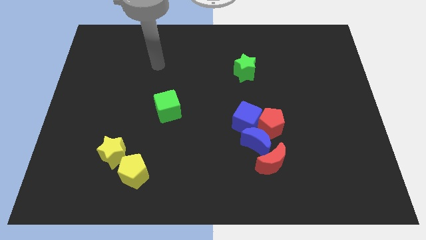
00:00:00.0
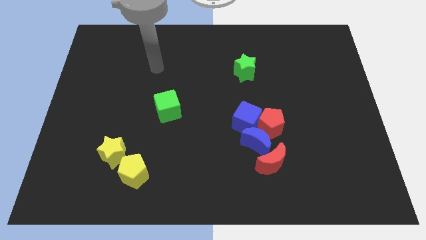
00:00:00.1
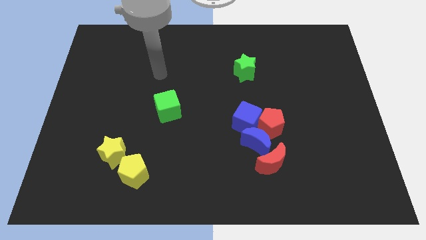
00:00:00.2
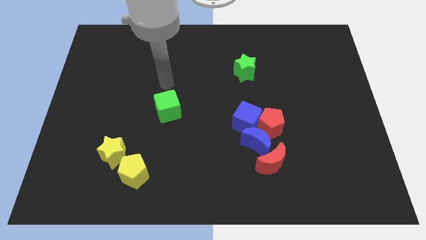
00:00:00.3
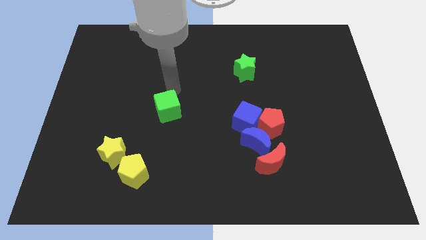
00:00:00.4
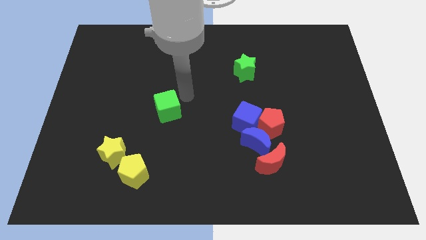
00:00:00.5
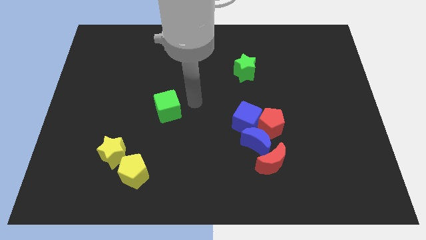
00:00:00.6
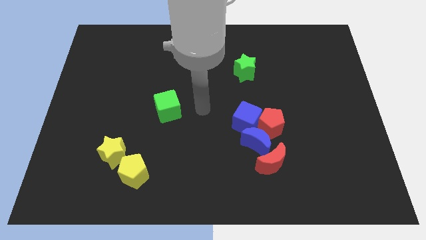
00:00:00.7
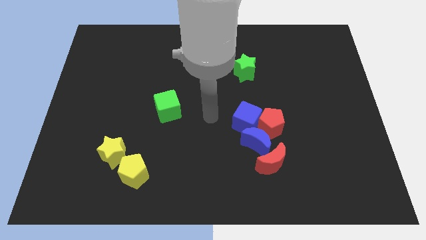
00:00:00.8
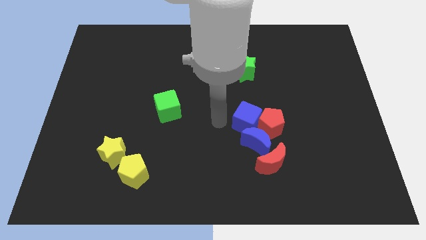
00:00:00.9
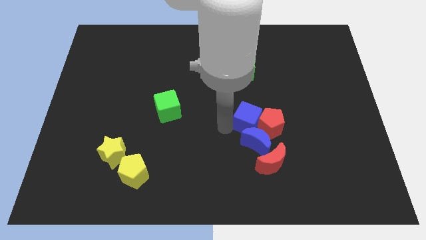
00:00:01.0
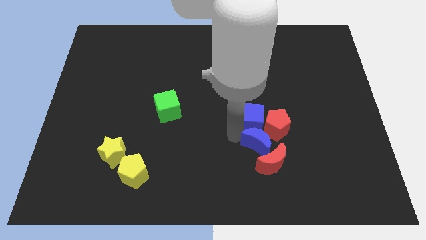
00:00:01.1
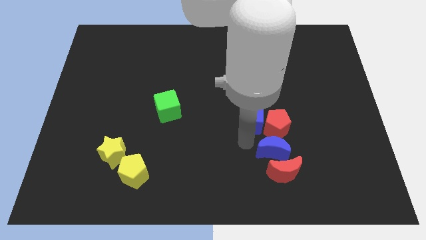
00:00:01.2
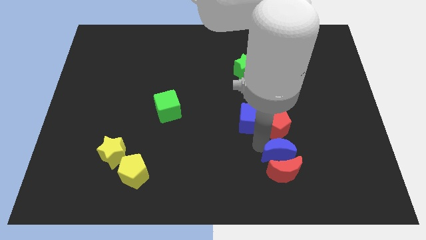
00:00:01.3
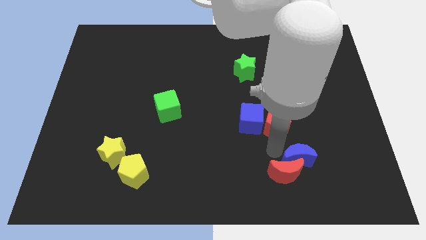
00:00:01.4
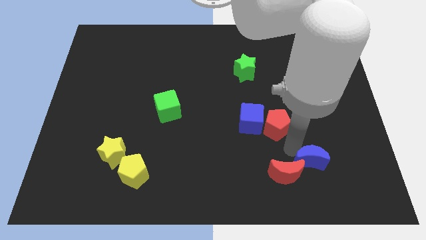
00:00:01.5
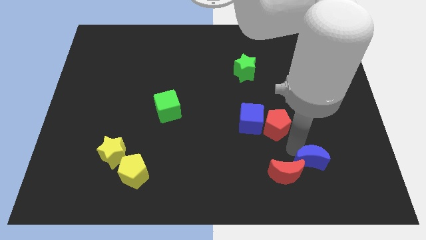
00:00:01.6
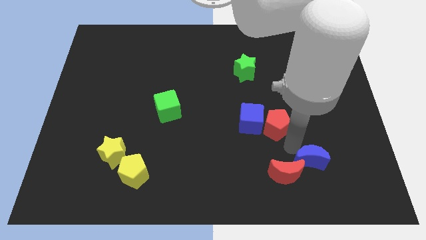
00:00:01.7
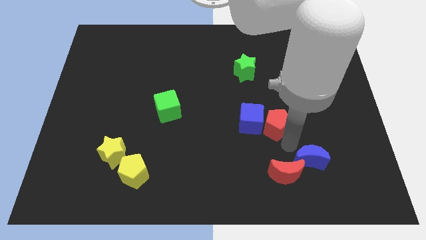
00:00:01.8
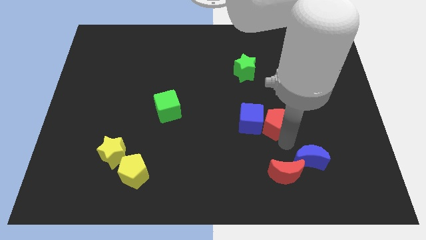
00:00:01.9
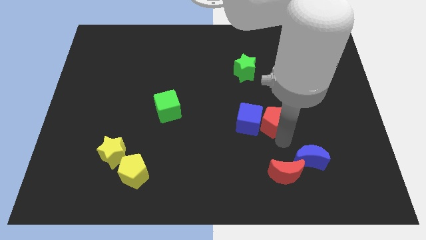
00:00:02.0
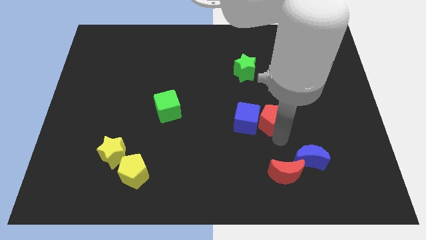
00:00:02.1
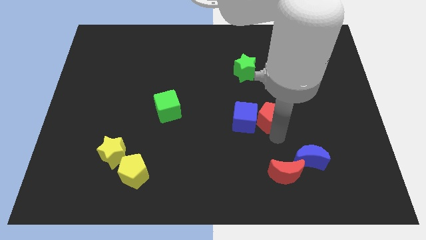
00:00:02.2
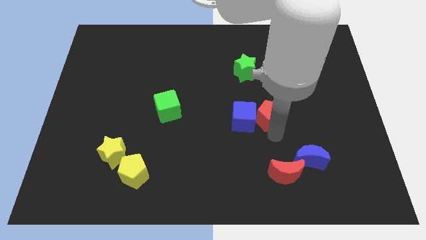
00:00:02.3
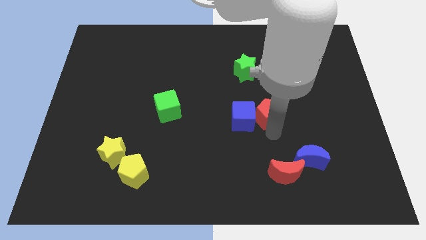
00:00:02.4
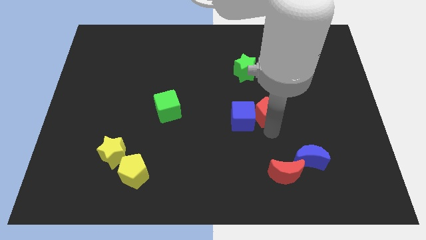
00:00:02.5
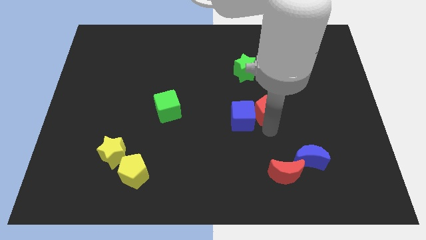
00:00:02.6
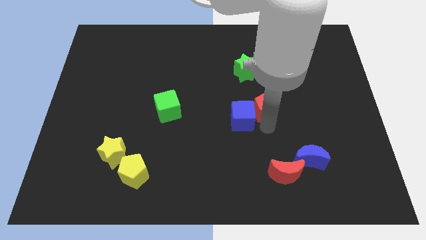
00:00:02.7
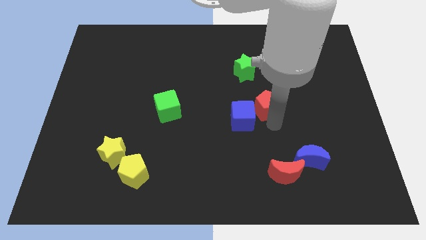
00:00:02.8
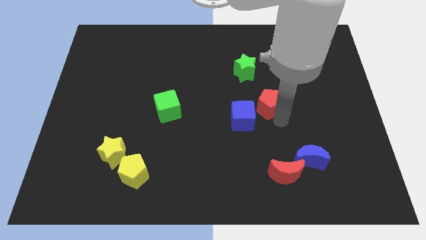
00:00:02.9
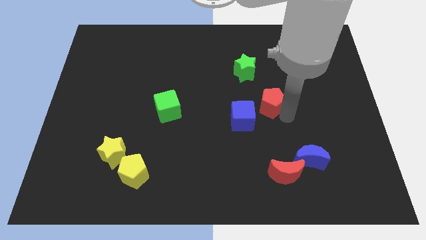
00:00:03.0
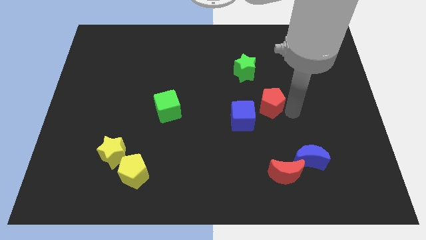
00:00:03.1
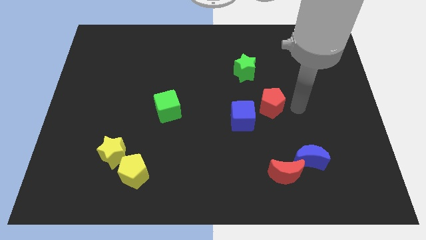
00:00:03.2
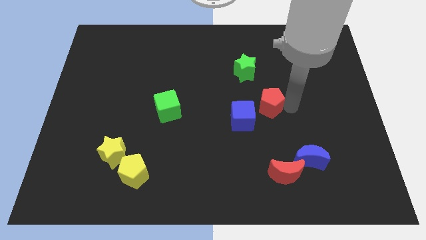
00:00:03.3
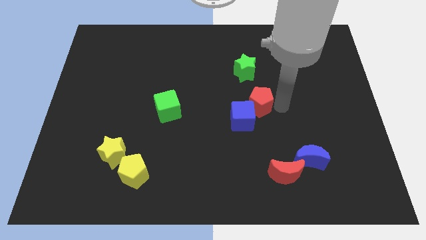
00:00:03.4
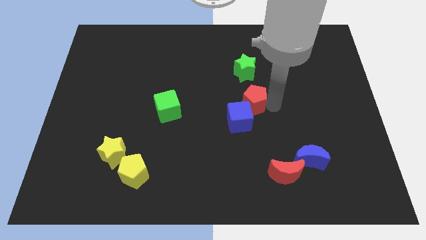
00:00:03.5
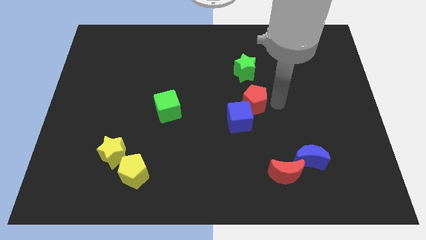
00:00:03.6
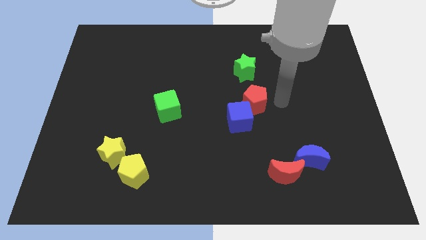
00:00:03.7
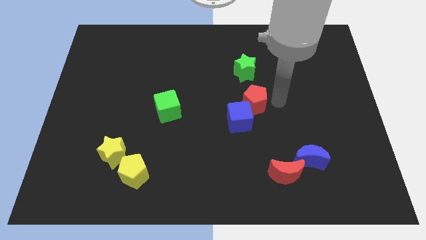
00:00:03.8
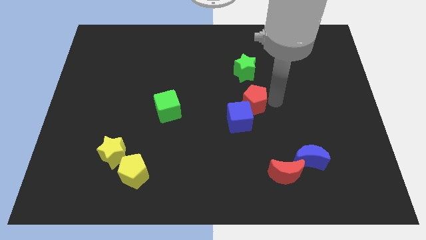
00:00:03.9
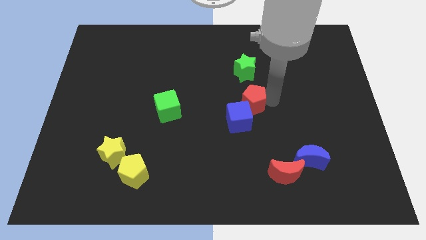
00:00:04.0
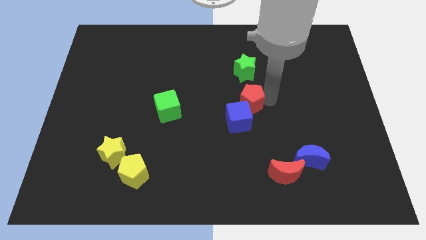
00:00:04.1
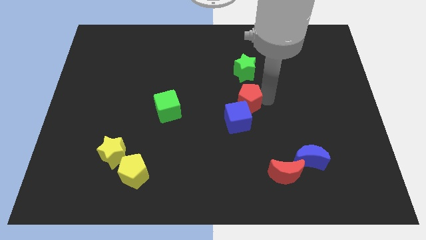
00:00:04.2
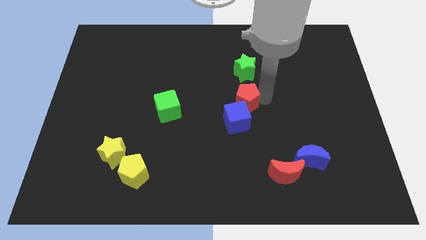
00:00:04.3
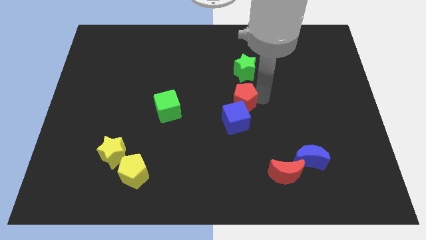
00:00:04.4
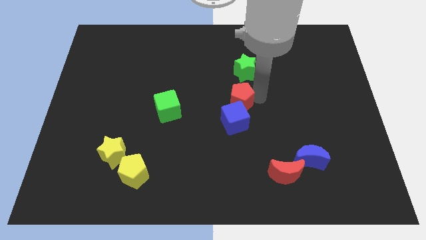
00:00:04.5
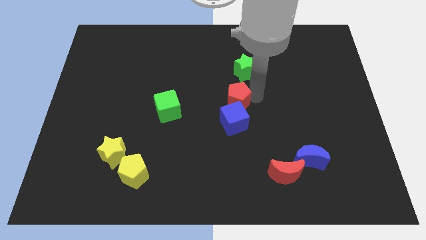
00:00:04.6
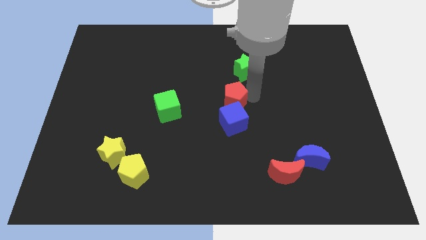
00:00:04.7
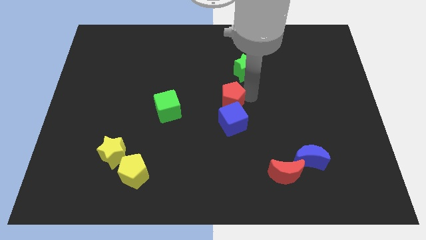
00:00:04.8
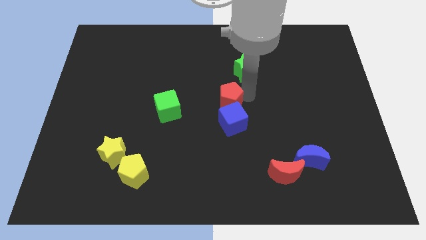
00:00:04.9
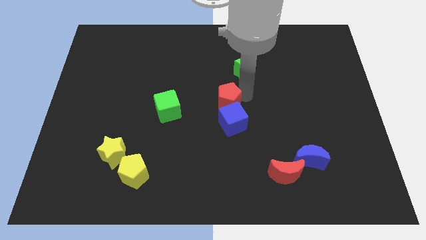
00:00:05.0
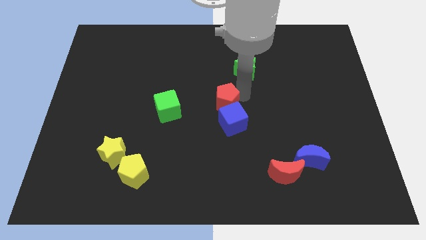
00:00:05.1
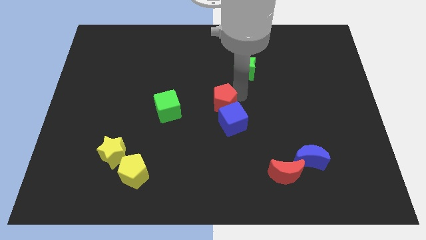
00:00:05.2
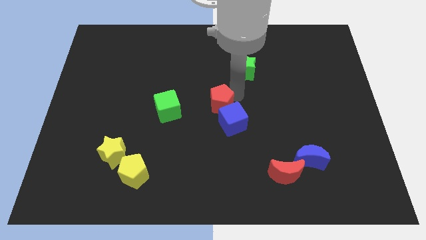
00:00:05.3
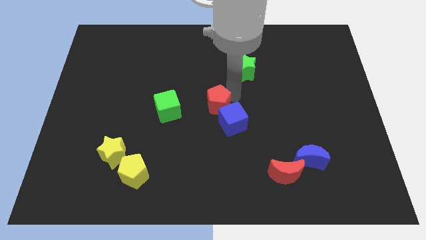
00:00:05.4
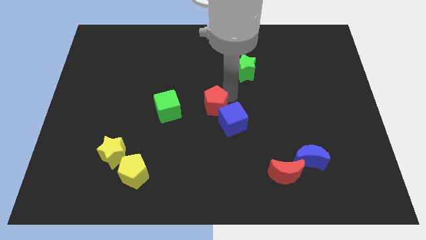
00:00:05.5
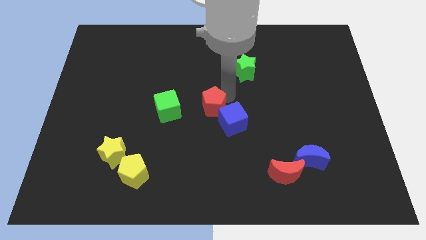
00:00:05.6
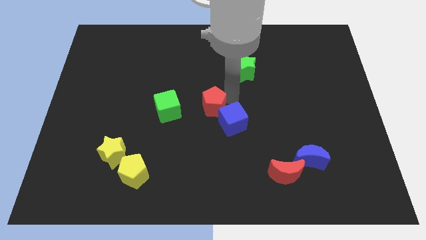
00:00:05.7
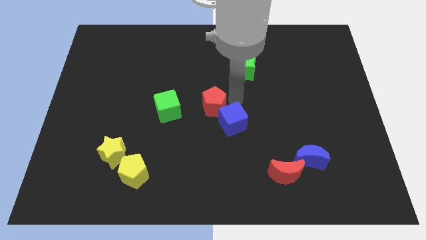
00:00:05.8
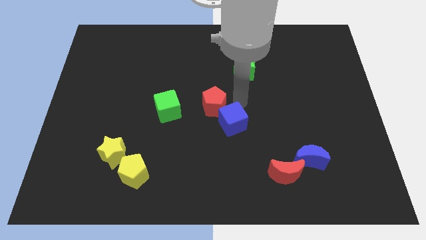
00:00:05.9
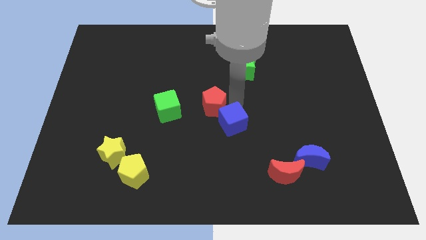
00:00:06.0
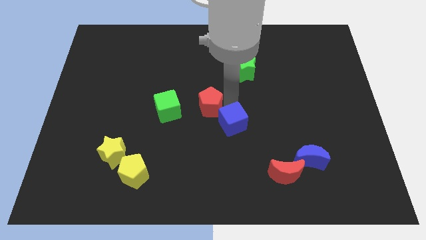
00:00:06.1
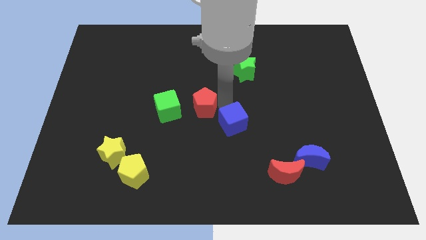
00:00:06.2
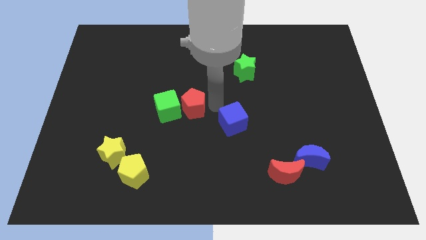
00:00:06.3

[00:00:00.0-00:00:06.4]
slide the red pentagon towards the green cube

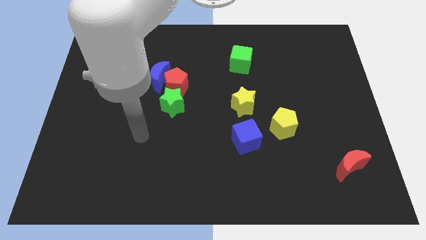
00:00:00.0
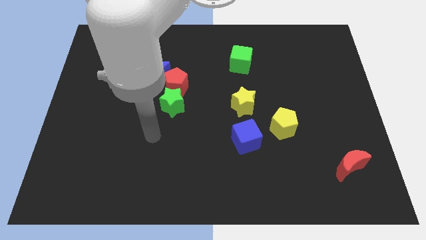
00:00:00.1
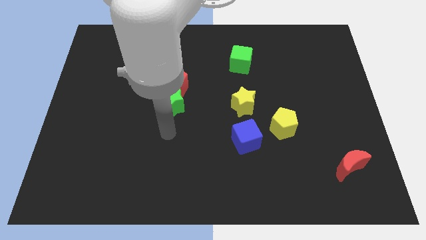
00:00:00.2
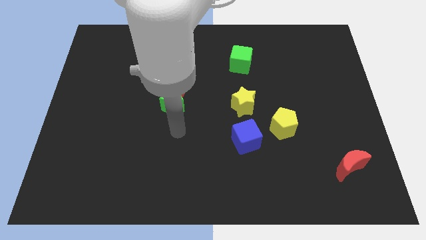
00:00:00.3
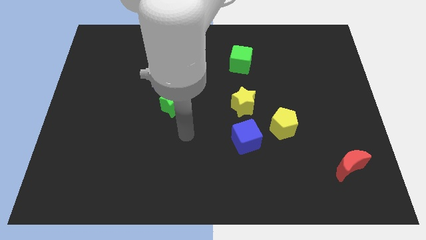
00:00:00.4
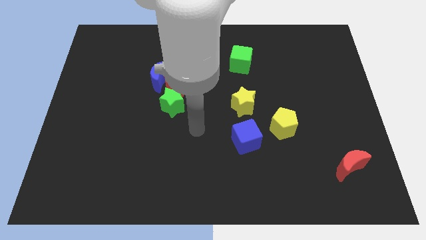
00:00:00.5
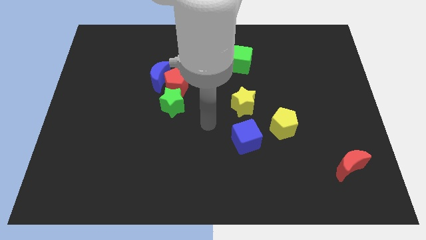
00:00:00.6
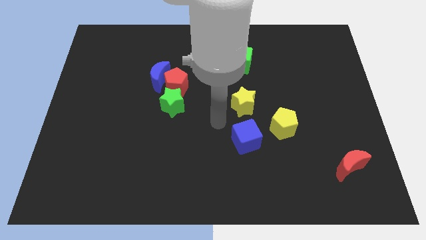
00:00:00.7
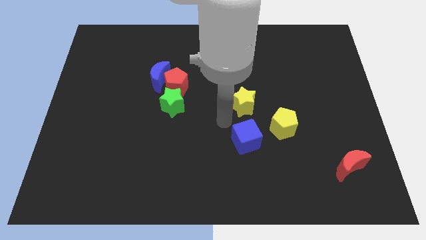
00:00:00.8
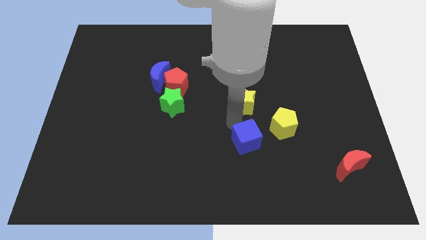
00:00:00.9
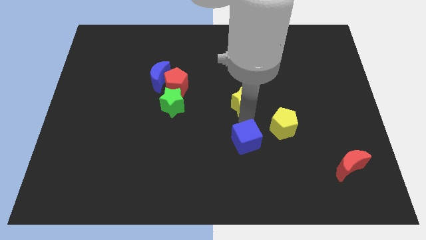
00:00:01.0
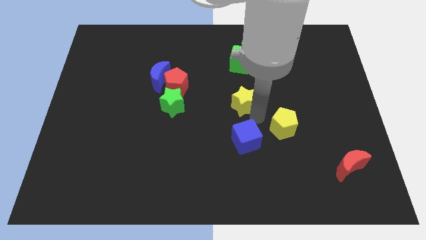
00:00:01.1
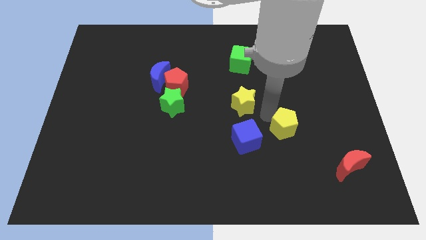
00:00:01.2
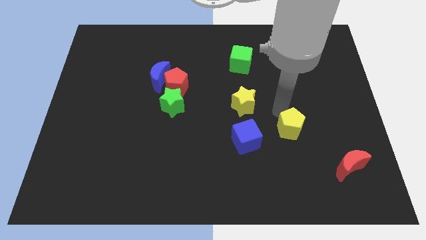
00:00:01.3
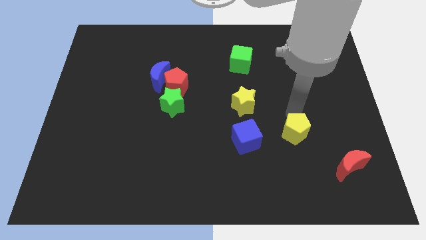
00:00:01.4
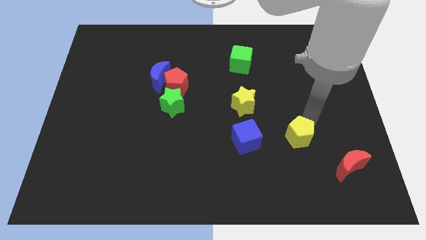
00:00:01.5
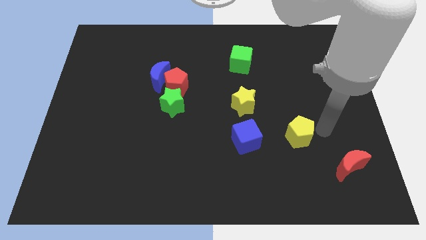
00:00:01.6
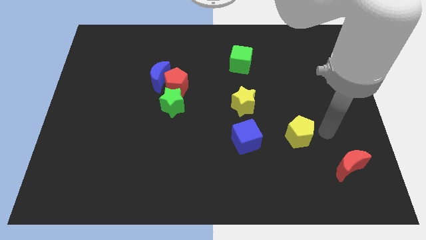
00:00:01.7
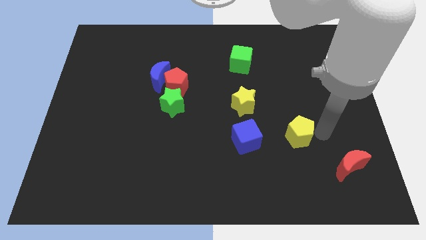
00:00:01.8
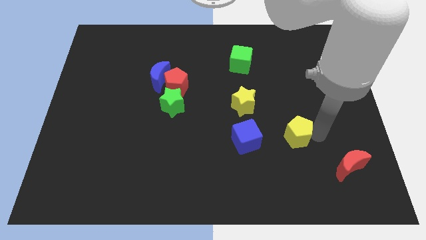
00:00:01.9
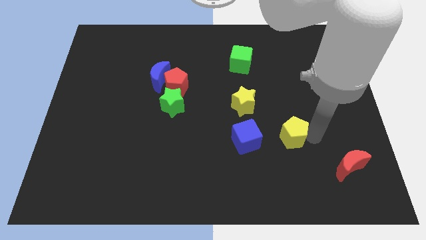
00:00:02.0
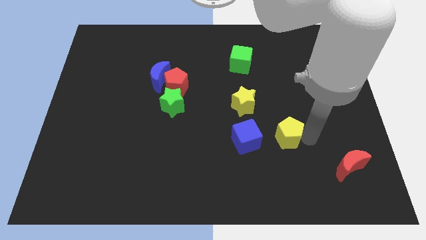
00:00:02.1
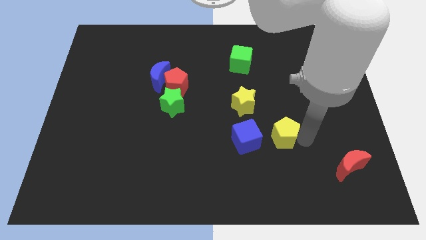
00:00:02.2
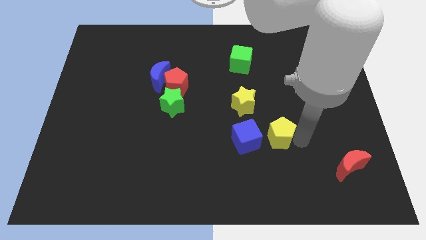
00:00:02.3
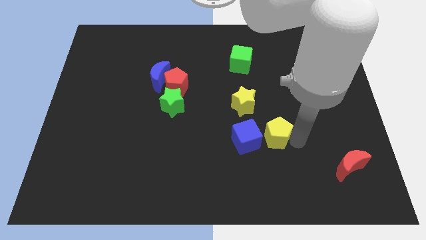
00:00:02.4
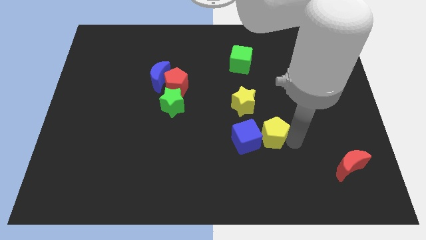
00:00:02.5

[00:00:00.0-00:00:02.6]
put the yellow pentagon close to the blue cube
